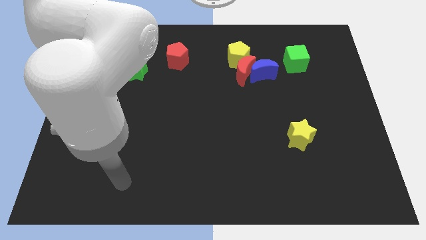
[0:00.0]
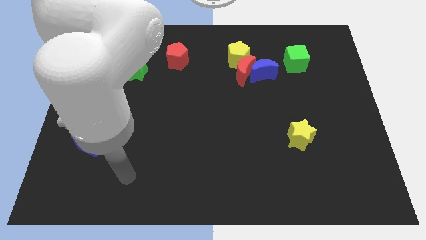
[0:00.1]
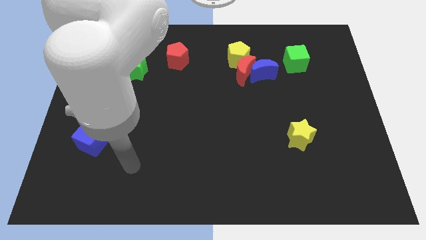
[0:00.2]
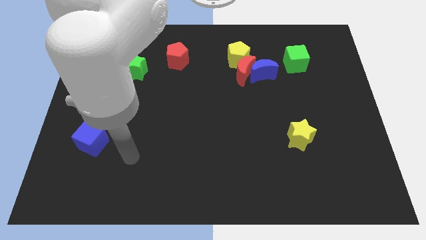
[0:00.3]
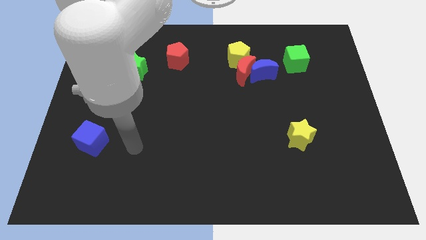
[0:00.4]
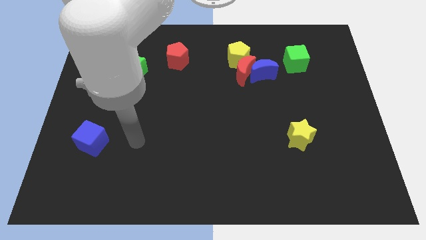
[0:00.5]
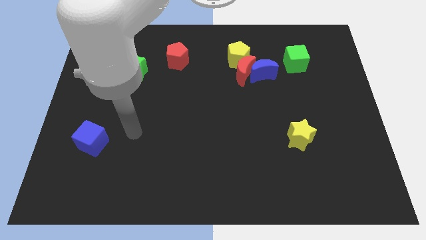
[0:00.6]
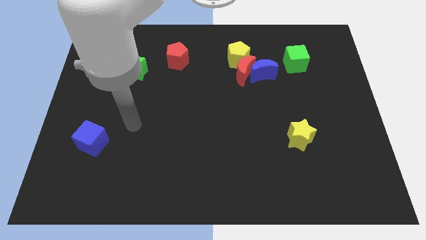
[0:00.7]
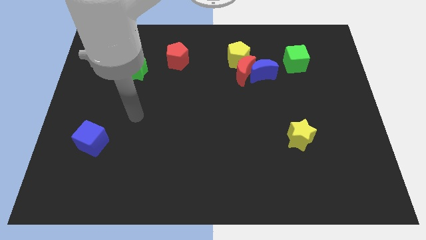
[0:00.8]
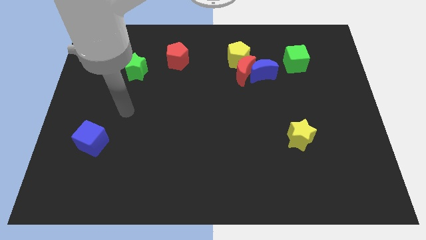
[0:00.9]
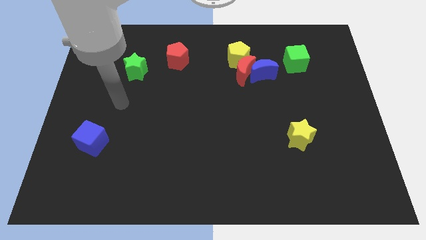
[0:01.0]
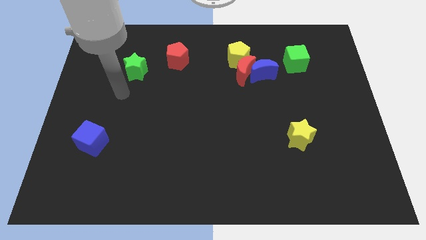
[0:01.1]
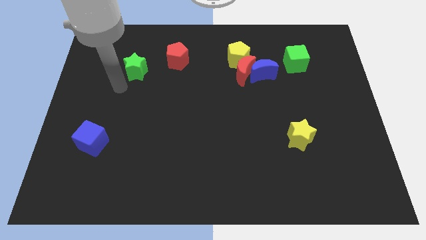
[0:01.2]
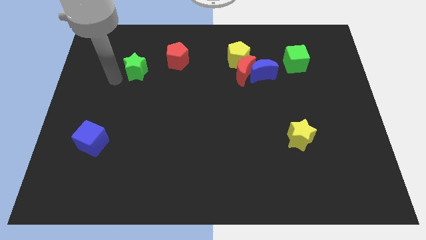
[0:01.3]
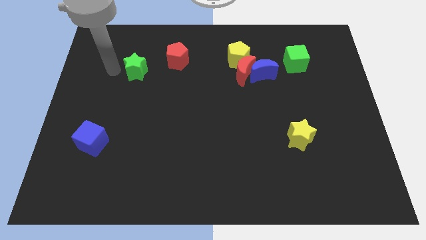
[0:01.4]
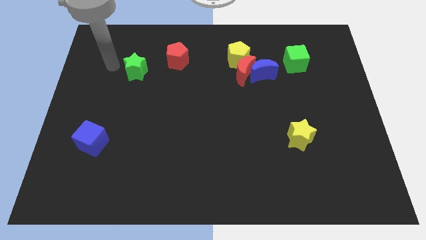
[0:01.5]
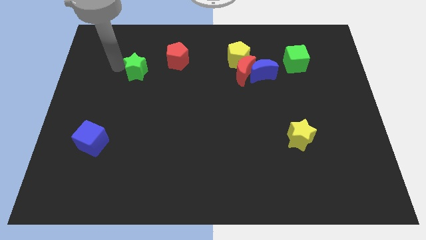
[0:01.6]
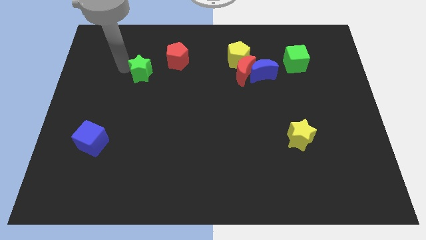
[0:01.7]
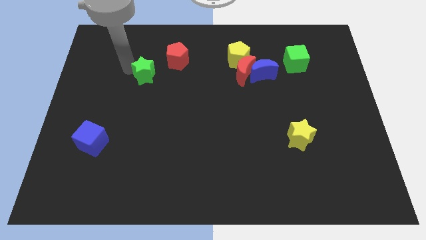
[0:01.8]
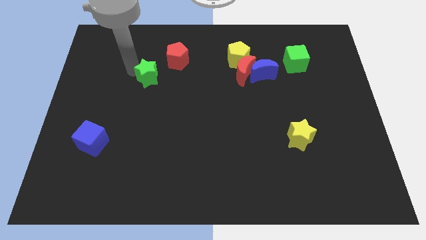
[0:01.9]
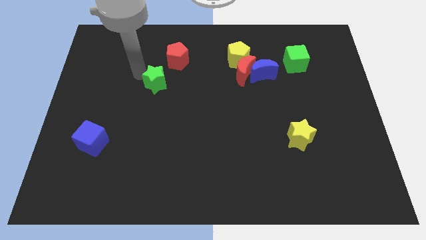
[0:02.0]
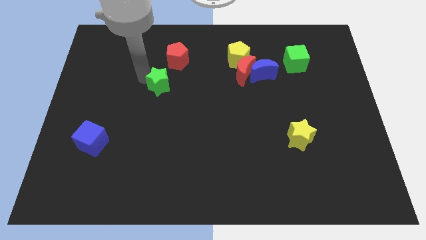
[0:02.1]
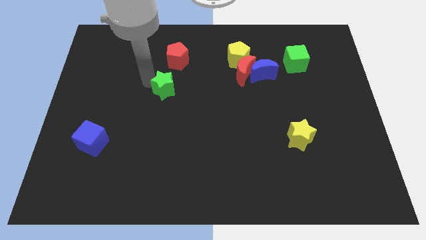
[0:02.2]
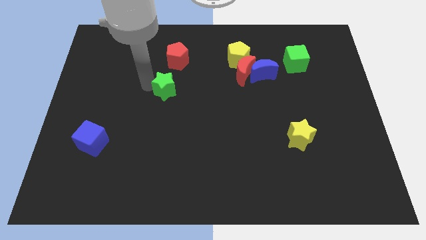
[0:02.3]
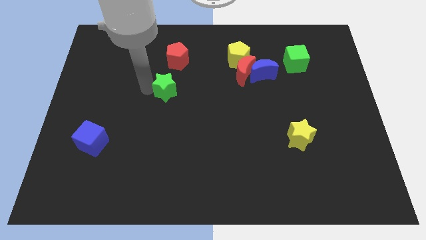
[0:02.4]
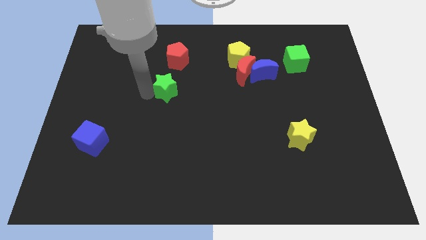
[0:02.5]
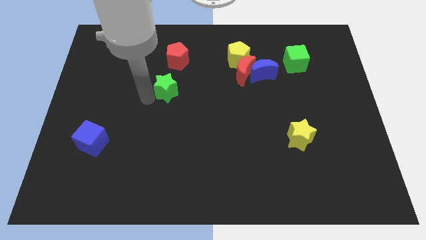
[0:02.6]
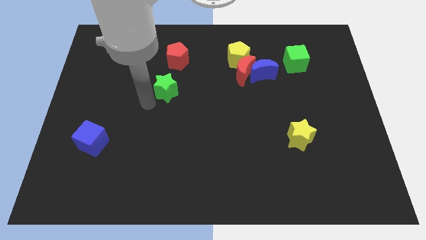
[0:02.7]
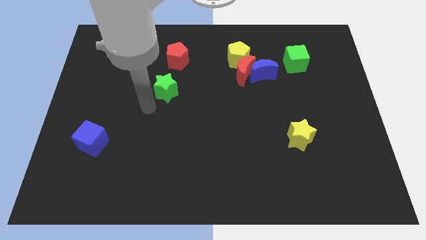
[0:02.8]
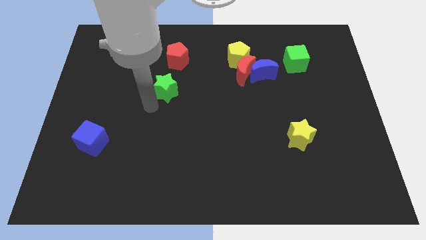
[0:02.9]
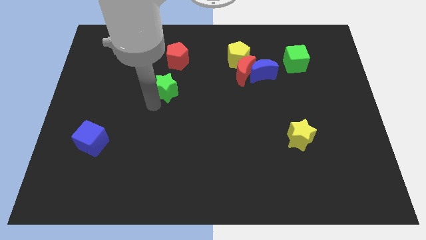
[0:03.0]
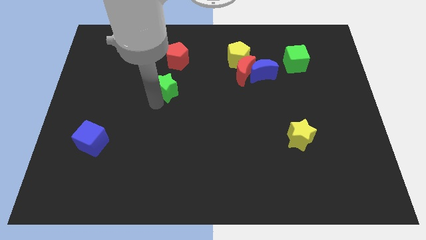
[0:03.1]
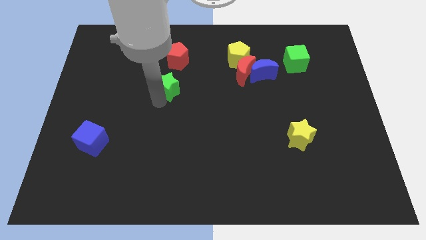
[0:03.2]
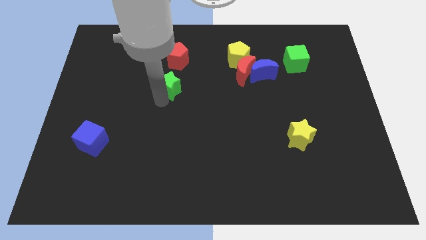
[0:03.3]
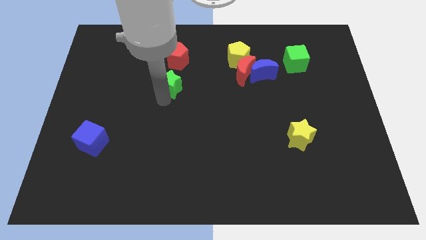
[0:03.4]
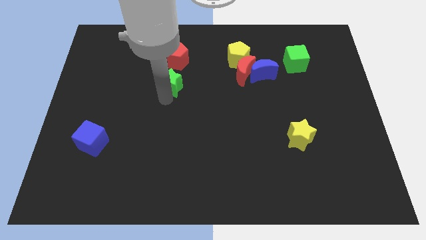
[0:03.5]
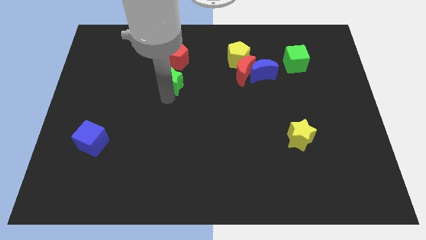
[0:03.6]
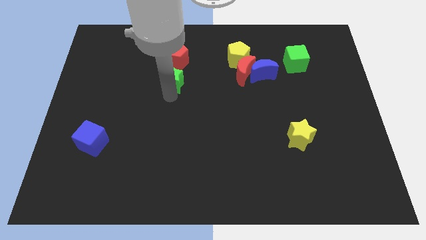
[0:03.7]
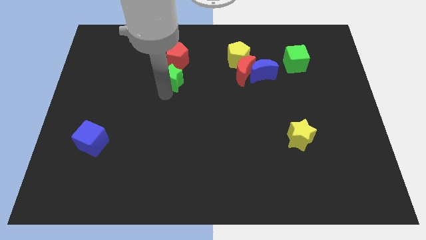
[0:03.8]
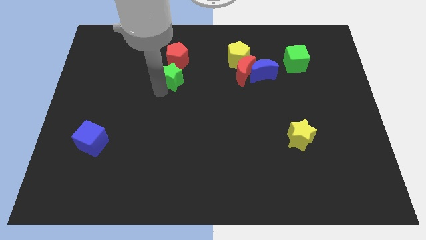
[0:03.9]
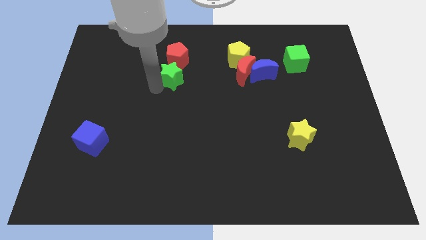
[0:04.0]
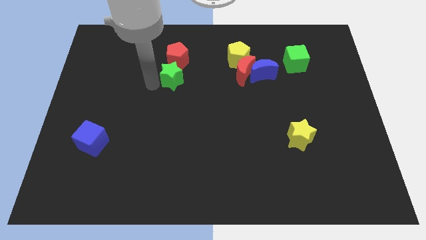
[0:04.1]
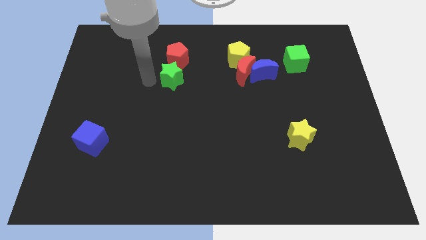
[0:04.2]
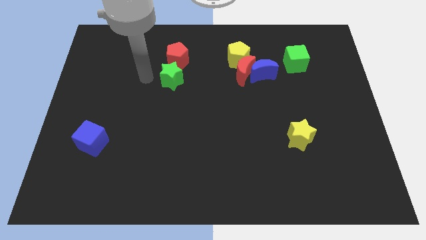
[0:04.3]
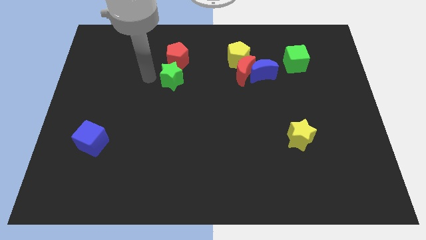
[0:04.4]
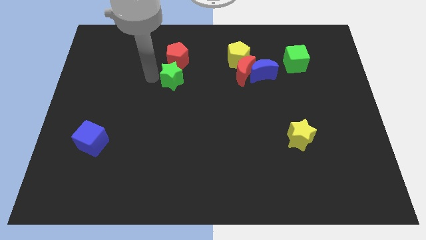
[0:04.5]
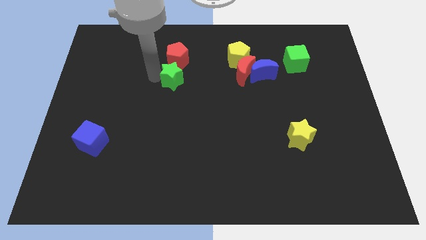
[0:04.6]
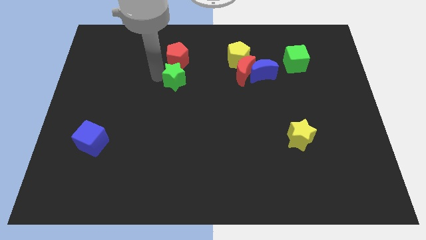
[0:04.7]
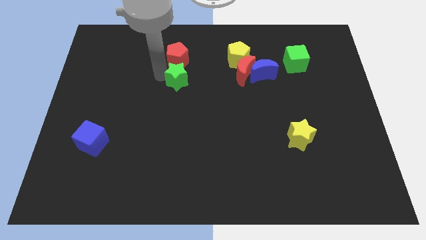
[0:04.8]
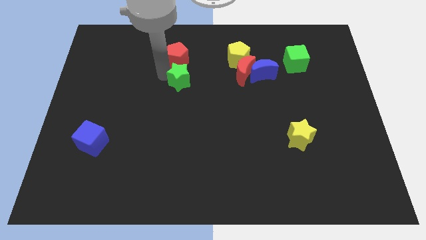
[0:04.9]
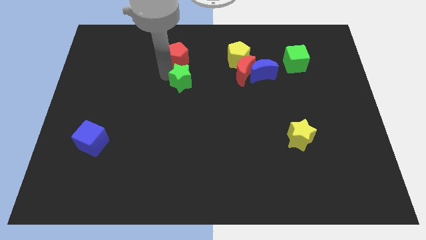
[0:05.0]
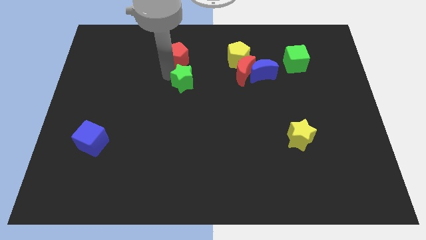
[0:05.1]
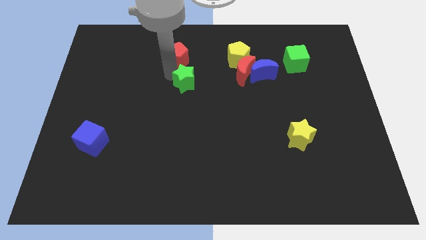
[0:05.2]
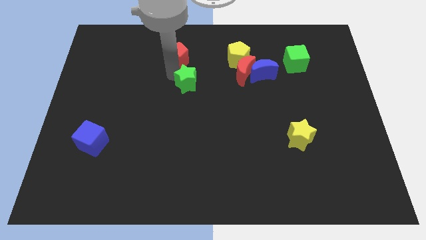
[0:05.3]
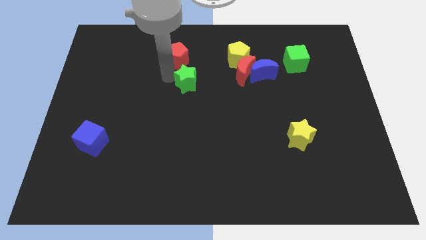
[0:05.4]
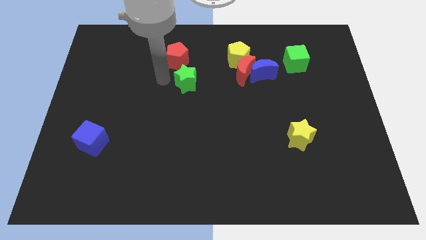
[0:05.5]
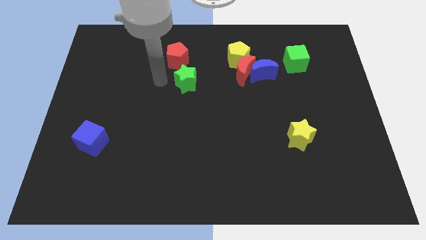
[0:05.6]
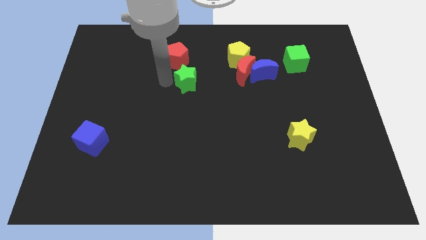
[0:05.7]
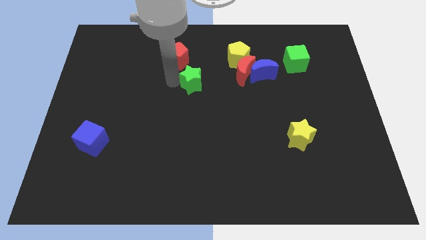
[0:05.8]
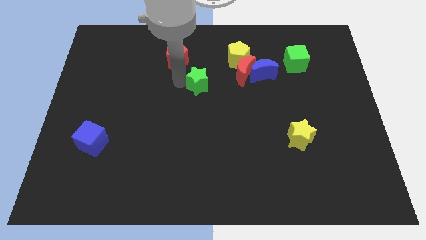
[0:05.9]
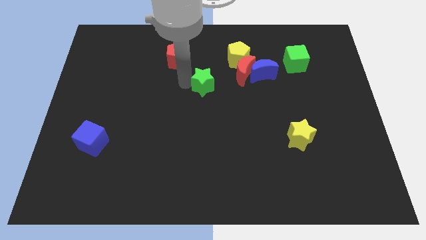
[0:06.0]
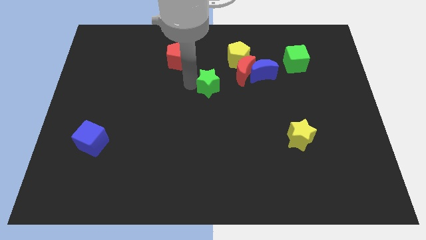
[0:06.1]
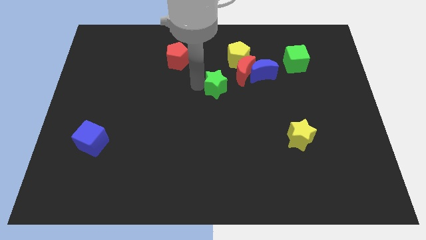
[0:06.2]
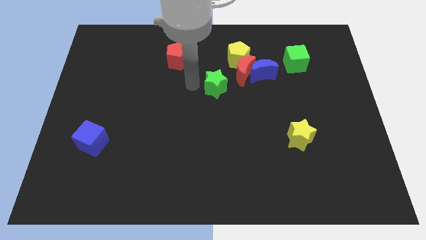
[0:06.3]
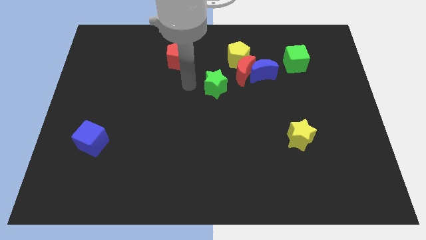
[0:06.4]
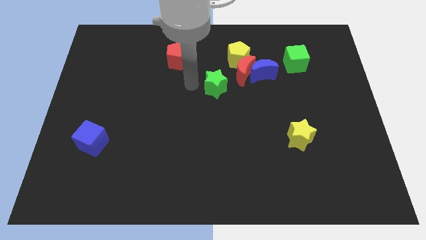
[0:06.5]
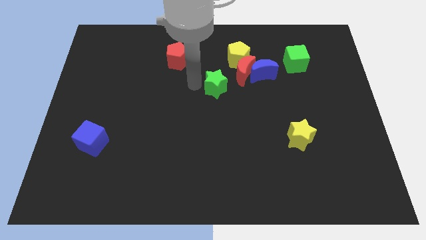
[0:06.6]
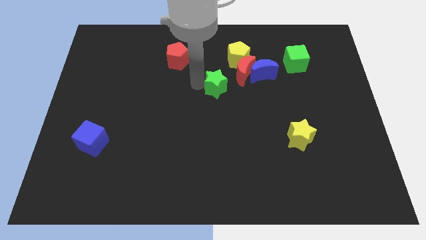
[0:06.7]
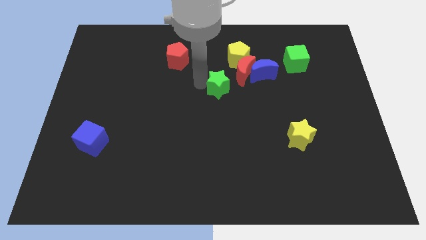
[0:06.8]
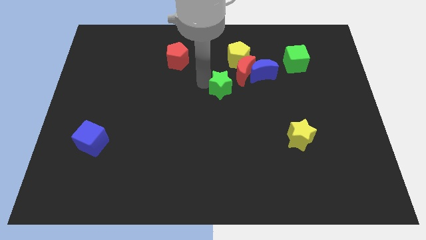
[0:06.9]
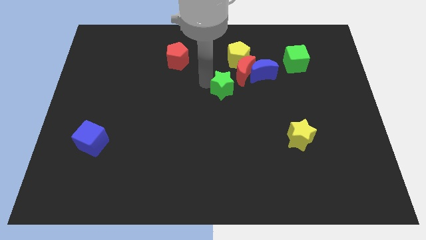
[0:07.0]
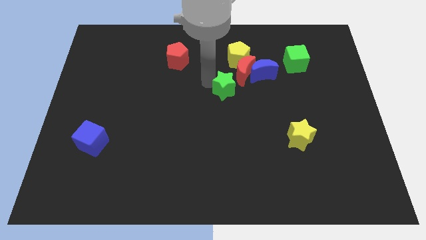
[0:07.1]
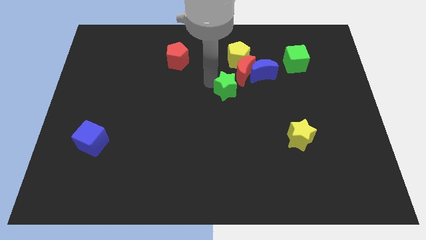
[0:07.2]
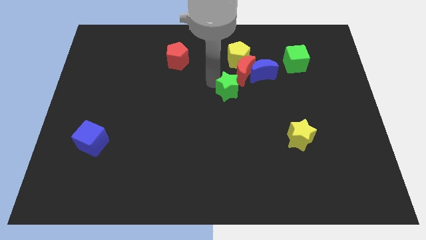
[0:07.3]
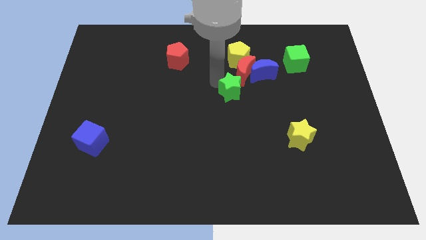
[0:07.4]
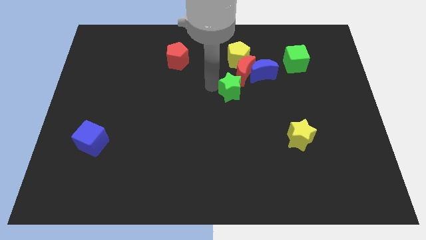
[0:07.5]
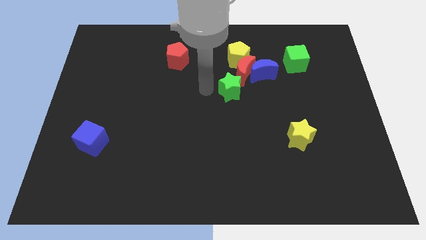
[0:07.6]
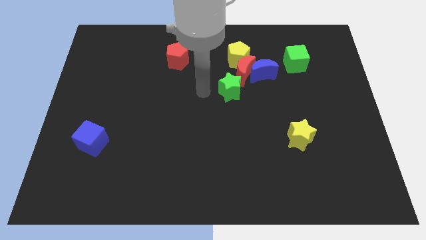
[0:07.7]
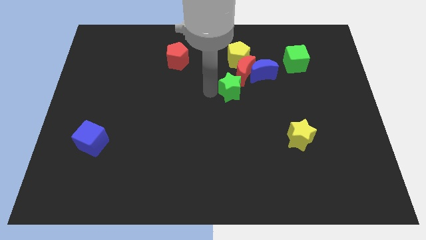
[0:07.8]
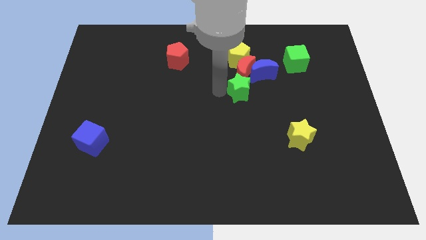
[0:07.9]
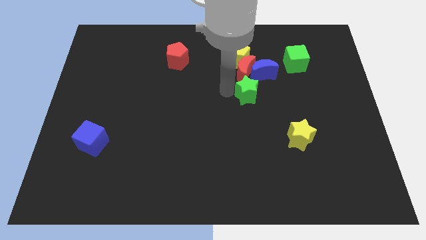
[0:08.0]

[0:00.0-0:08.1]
slide the green star to the bottom right side of the red moon
